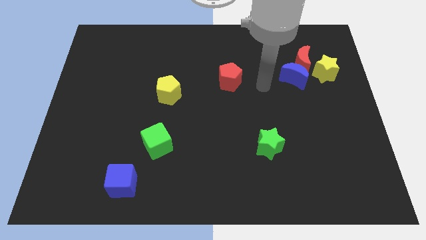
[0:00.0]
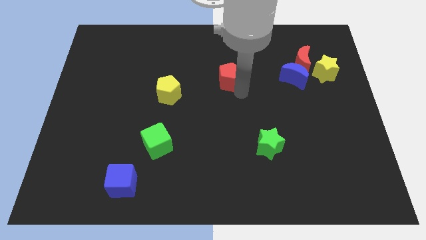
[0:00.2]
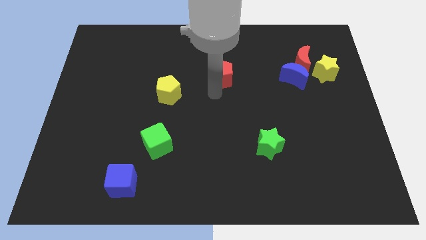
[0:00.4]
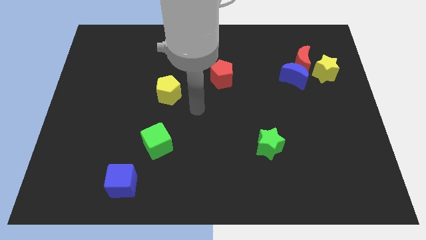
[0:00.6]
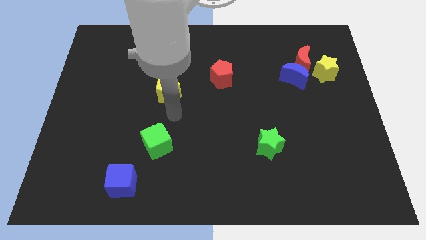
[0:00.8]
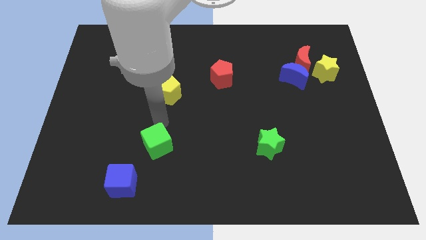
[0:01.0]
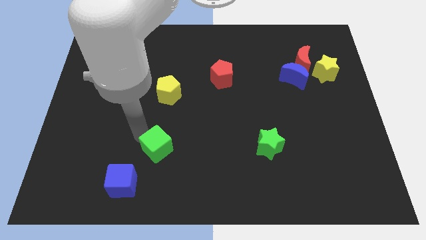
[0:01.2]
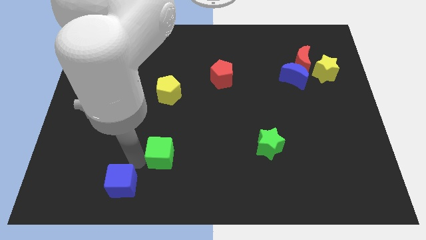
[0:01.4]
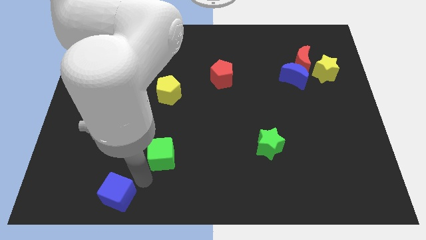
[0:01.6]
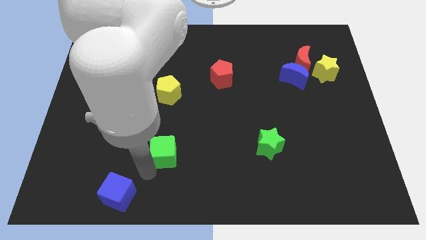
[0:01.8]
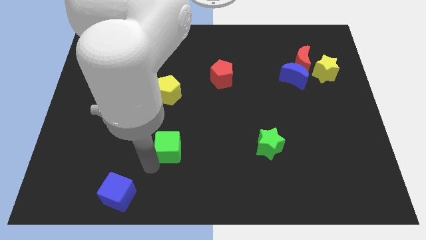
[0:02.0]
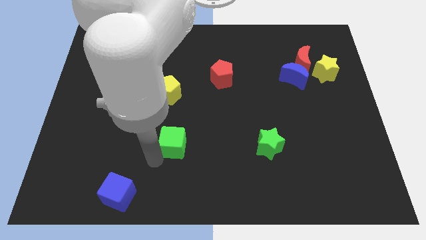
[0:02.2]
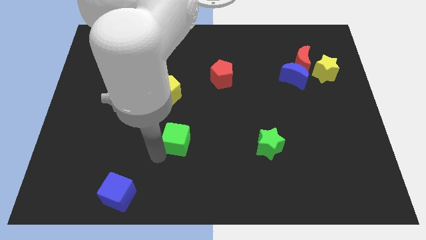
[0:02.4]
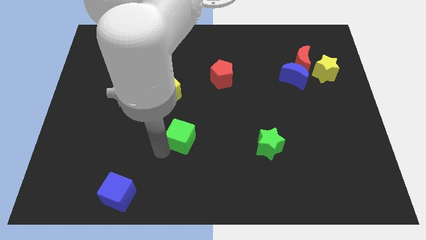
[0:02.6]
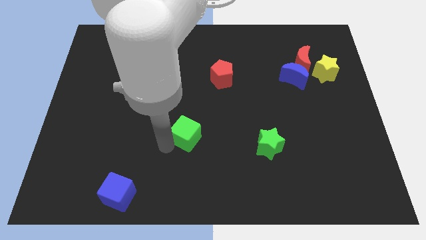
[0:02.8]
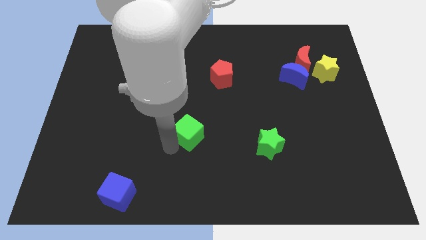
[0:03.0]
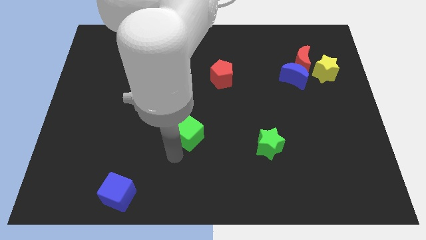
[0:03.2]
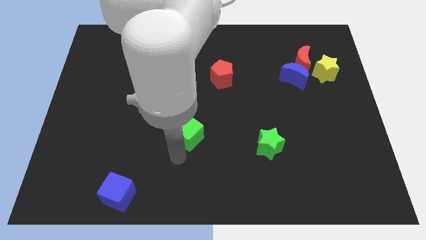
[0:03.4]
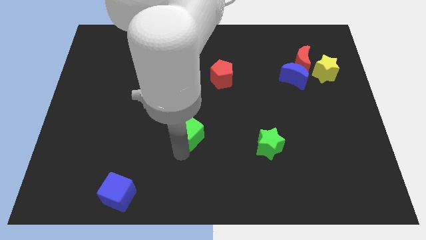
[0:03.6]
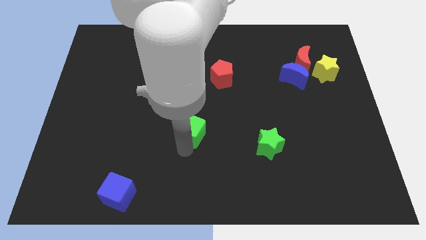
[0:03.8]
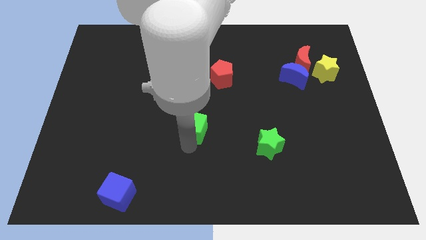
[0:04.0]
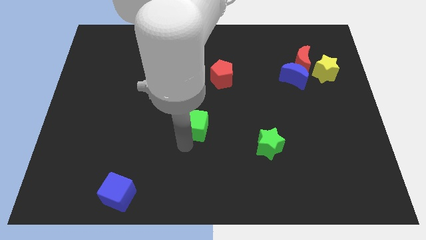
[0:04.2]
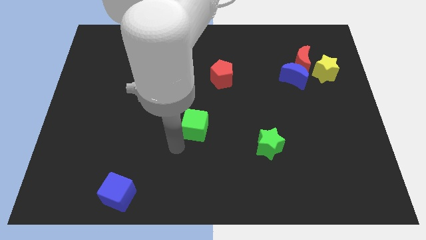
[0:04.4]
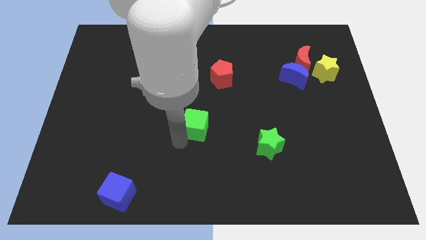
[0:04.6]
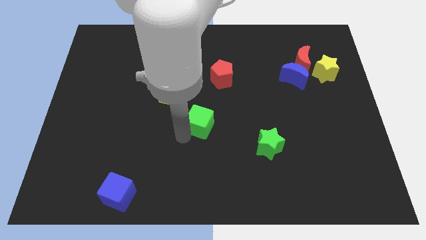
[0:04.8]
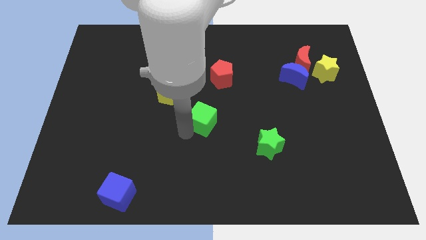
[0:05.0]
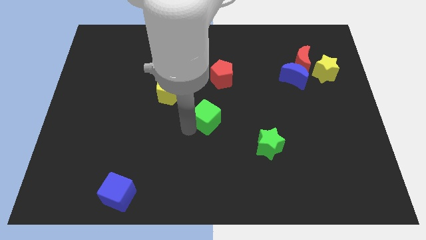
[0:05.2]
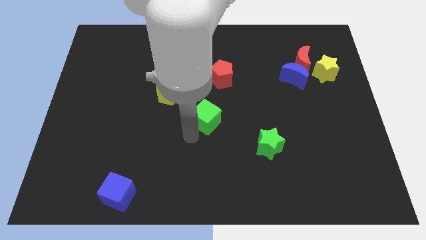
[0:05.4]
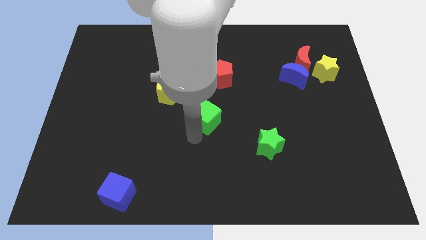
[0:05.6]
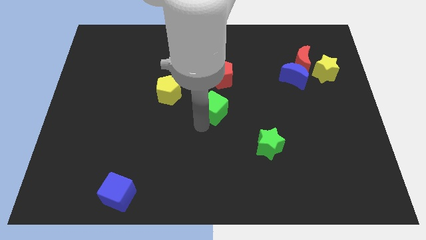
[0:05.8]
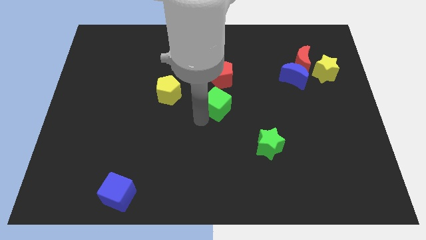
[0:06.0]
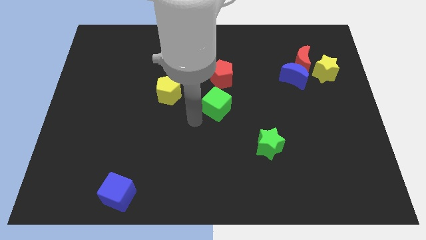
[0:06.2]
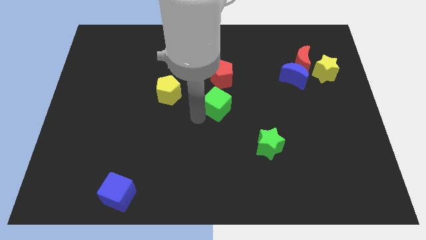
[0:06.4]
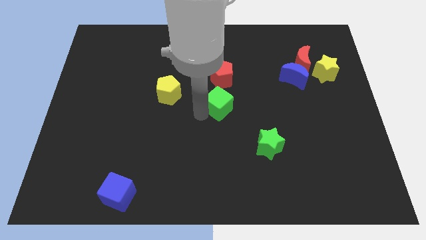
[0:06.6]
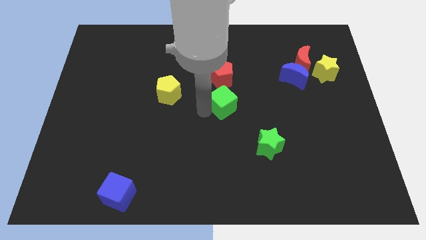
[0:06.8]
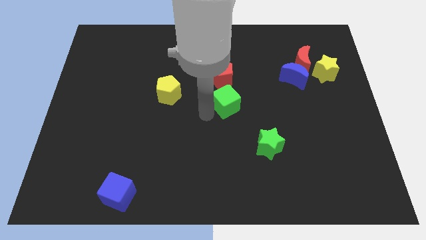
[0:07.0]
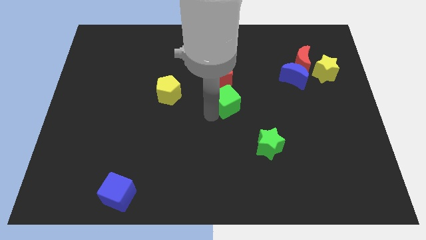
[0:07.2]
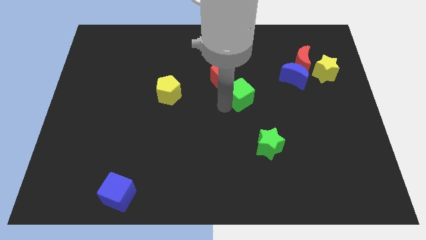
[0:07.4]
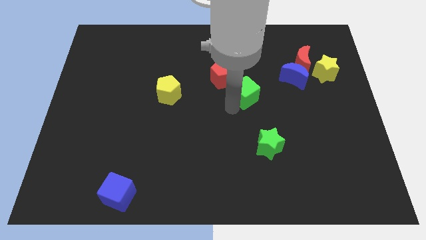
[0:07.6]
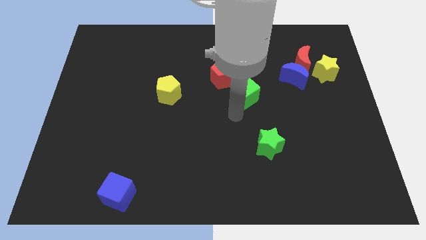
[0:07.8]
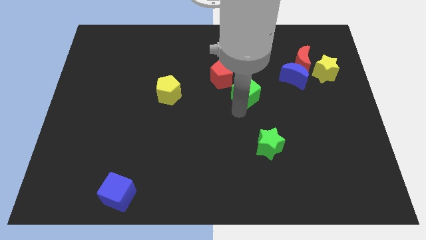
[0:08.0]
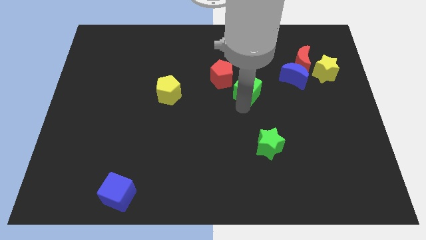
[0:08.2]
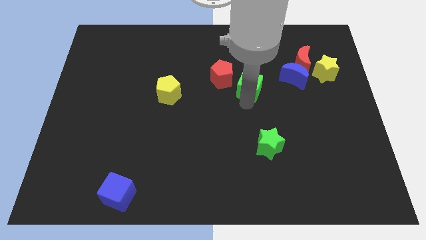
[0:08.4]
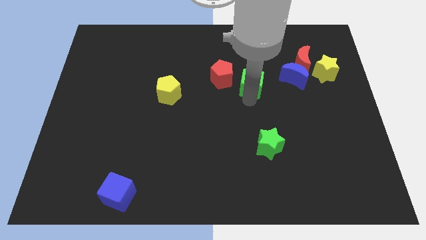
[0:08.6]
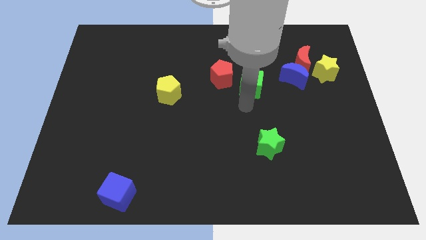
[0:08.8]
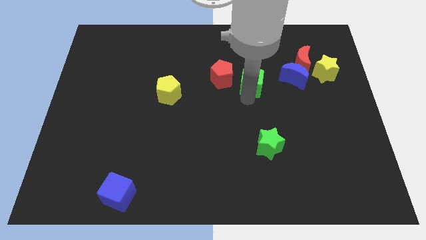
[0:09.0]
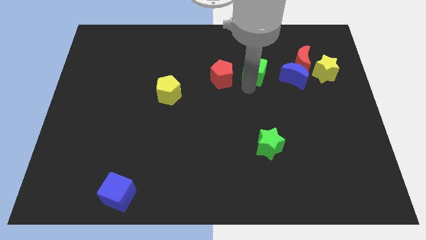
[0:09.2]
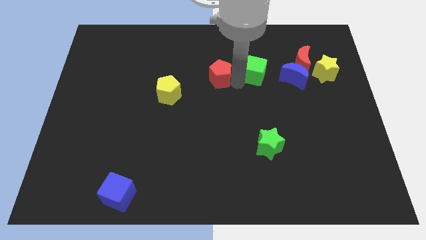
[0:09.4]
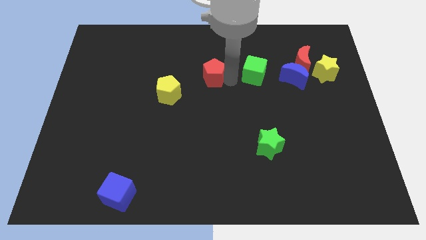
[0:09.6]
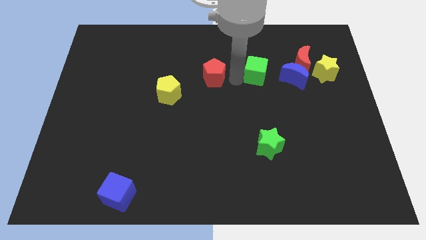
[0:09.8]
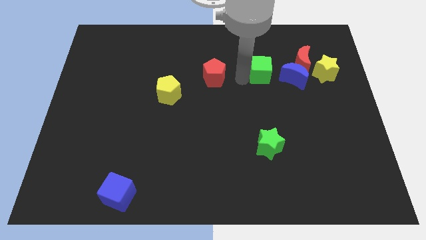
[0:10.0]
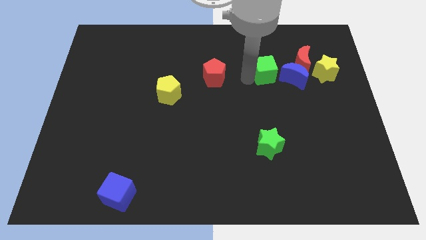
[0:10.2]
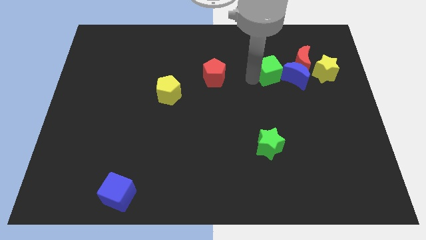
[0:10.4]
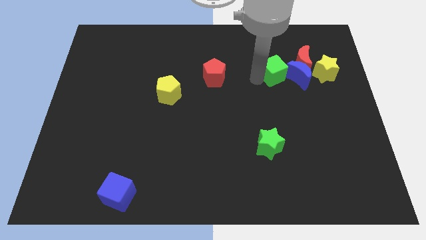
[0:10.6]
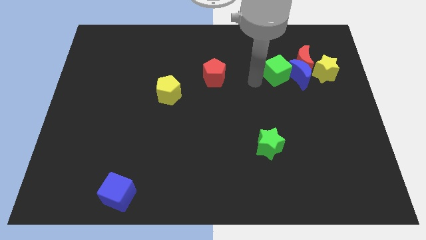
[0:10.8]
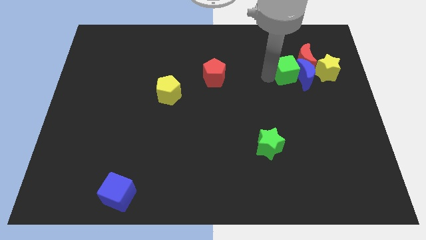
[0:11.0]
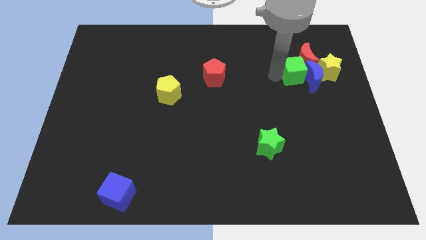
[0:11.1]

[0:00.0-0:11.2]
move the green cube to the red moon

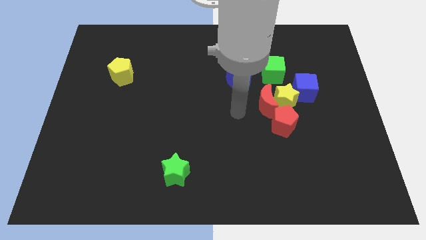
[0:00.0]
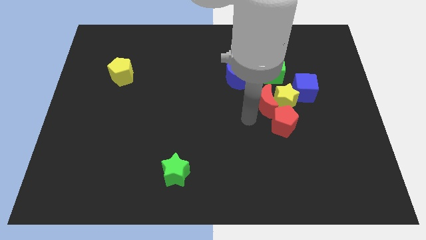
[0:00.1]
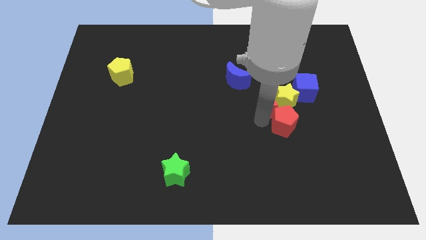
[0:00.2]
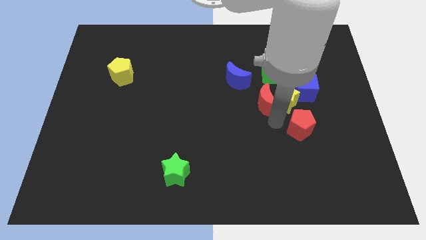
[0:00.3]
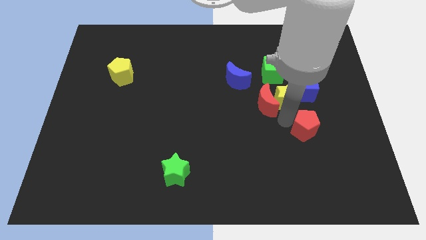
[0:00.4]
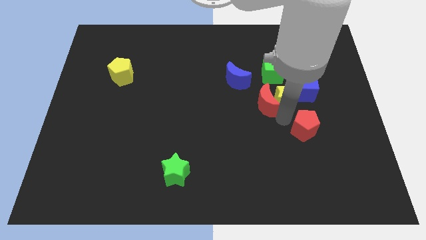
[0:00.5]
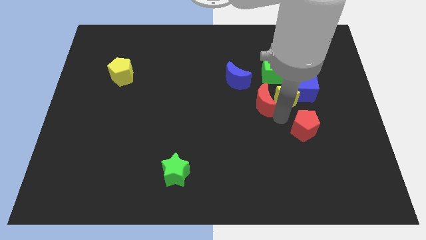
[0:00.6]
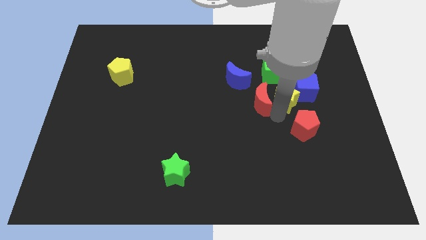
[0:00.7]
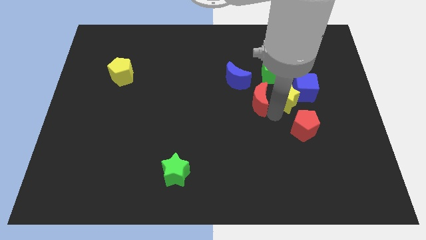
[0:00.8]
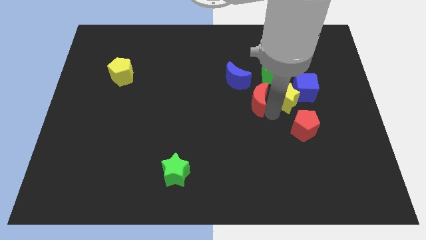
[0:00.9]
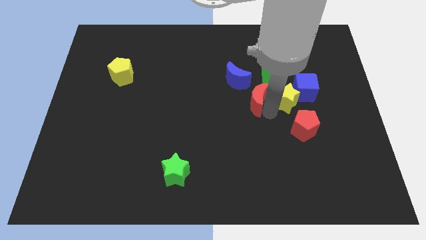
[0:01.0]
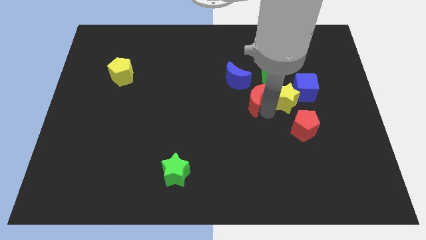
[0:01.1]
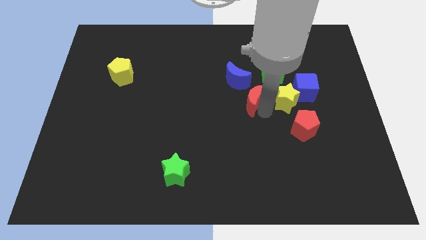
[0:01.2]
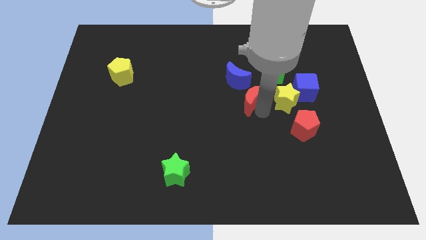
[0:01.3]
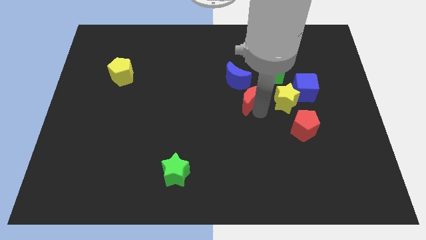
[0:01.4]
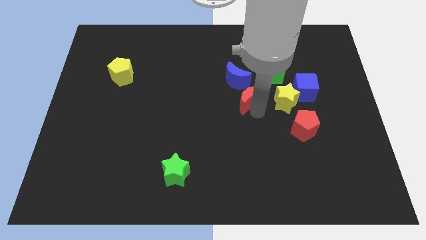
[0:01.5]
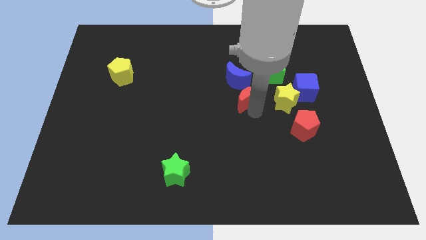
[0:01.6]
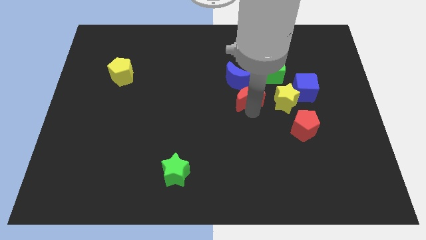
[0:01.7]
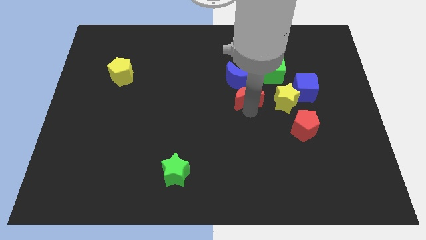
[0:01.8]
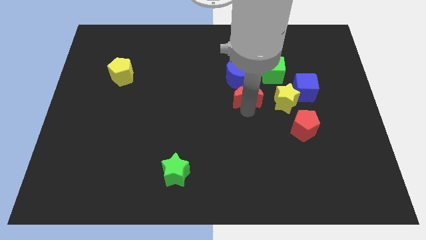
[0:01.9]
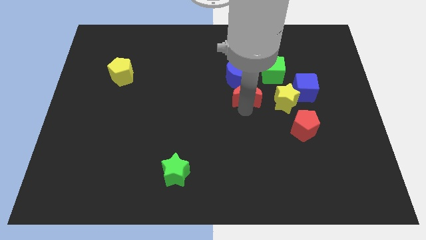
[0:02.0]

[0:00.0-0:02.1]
put the red moon towards the blue moon
